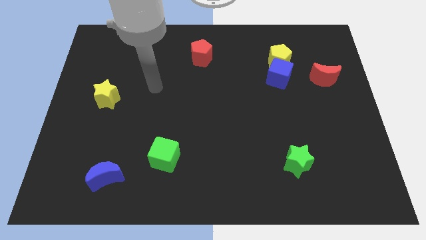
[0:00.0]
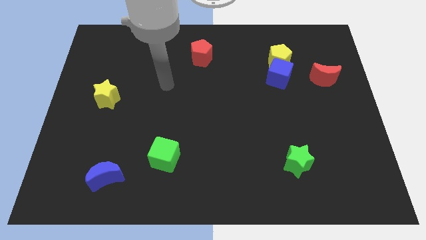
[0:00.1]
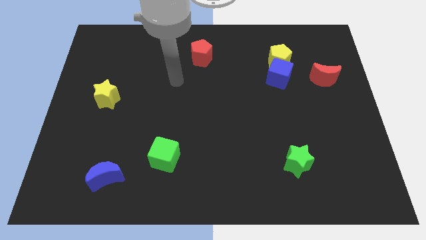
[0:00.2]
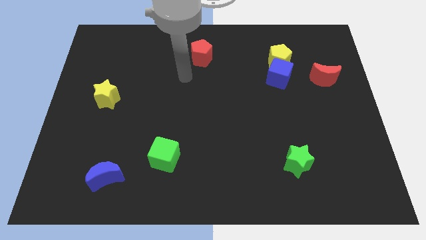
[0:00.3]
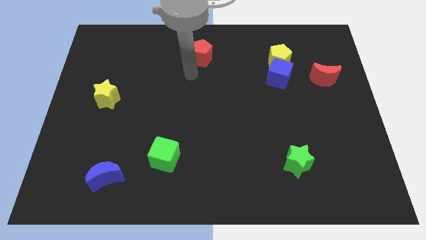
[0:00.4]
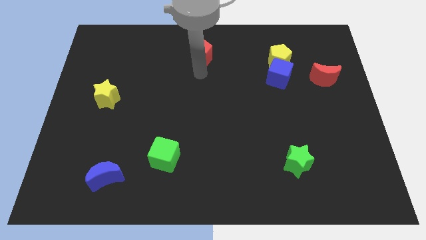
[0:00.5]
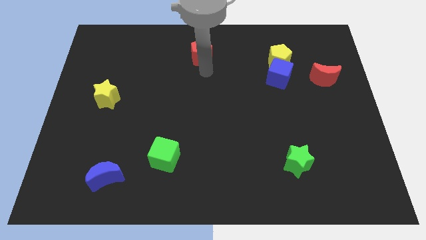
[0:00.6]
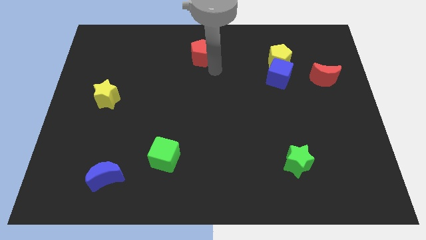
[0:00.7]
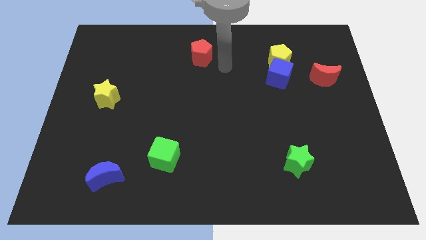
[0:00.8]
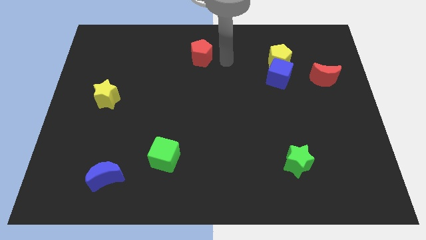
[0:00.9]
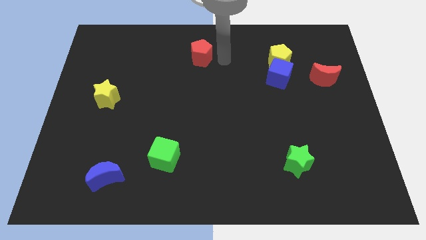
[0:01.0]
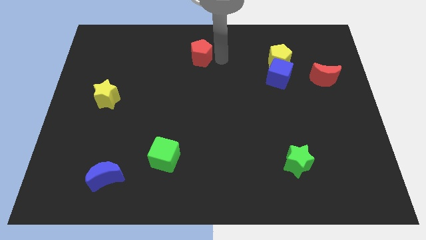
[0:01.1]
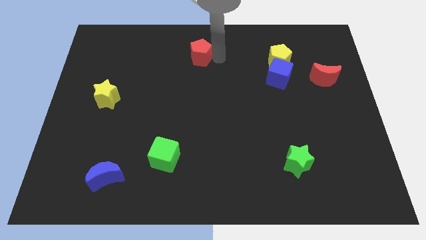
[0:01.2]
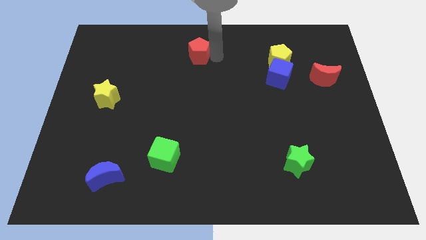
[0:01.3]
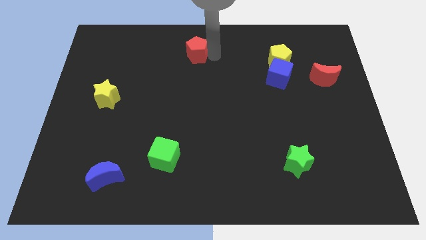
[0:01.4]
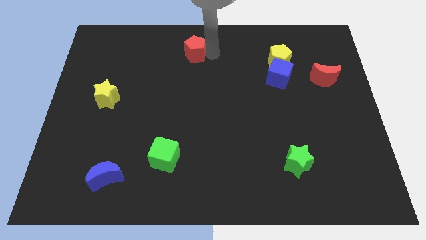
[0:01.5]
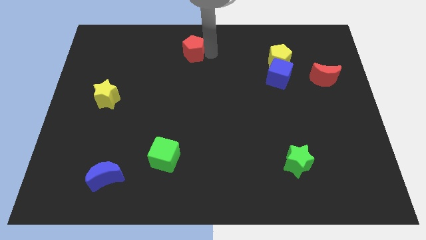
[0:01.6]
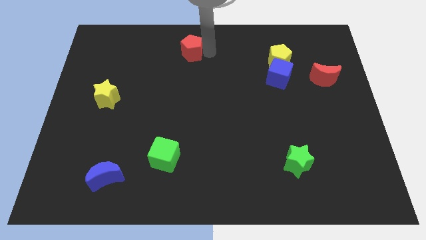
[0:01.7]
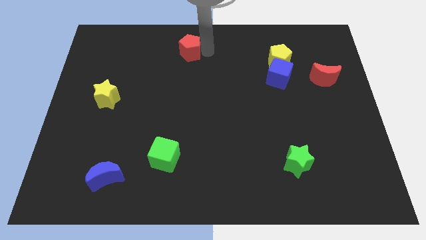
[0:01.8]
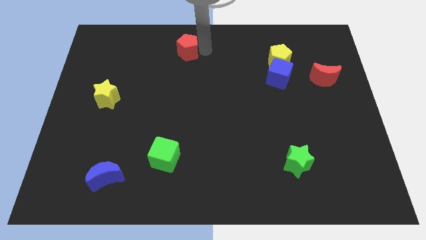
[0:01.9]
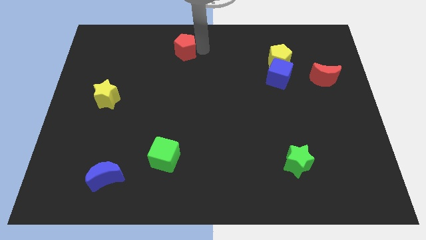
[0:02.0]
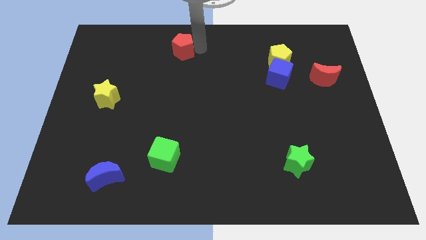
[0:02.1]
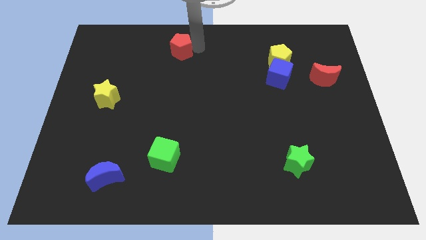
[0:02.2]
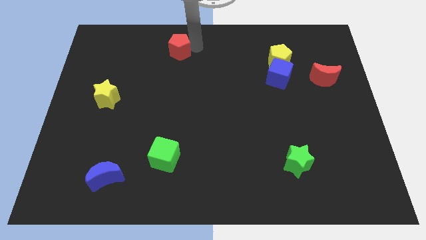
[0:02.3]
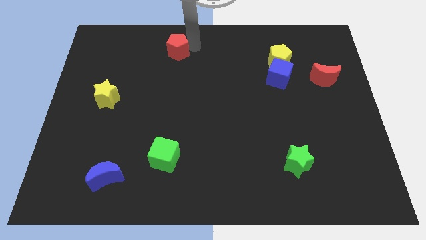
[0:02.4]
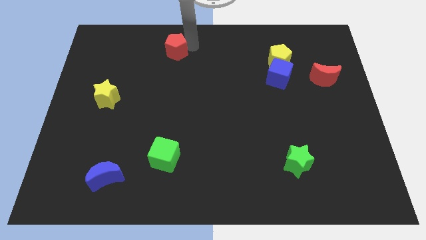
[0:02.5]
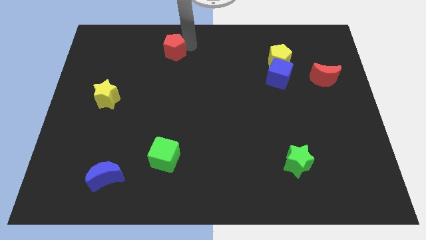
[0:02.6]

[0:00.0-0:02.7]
slightly push the red pentagon left

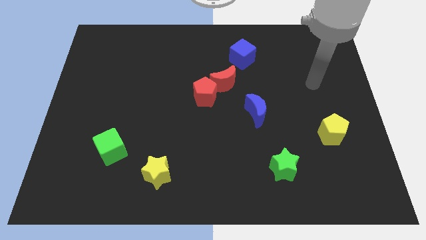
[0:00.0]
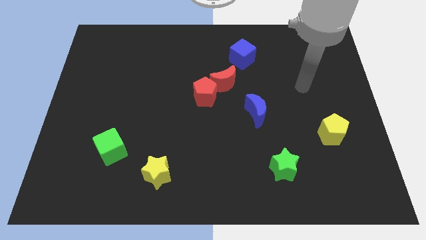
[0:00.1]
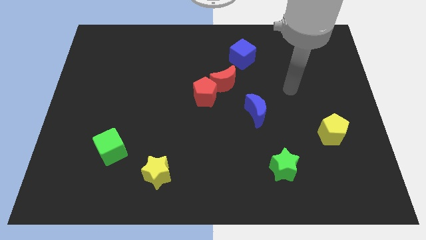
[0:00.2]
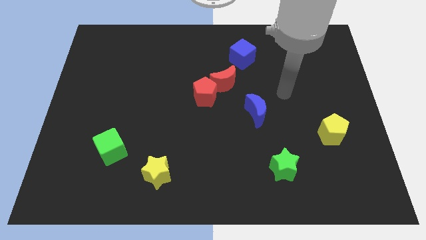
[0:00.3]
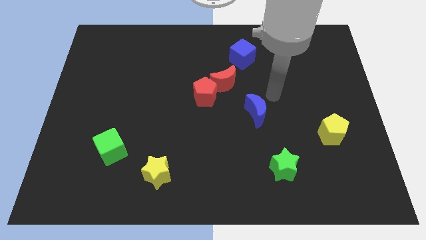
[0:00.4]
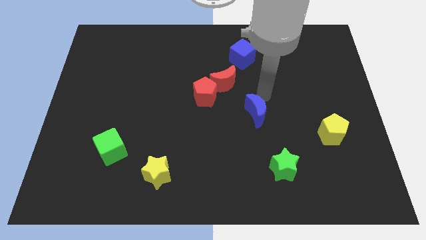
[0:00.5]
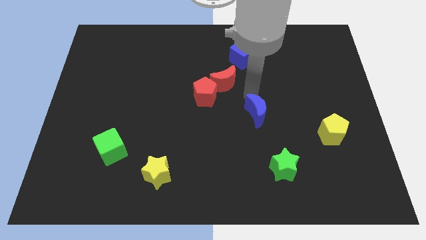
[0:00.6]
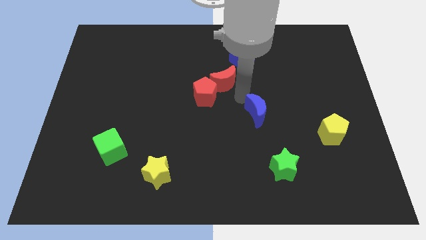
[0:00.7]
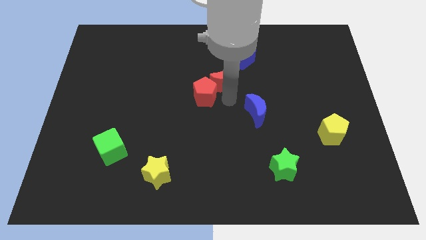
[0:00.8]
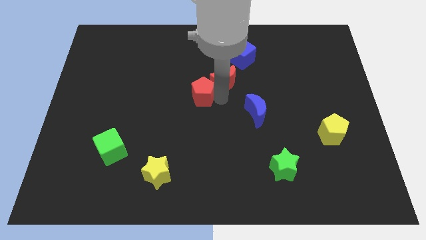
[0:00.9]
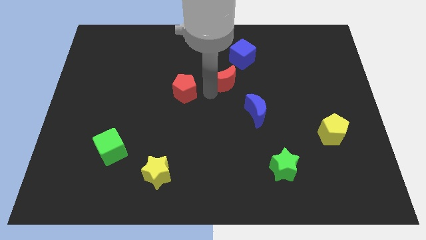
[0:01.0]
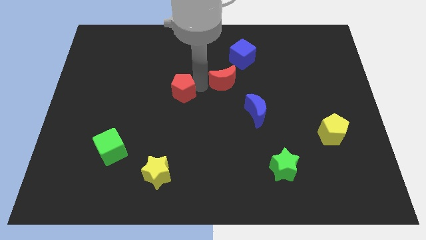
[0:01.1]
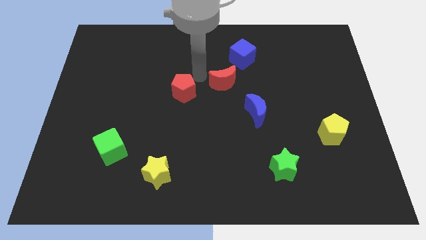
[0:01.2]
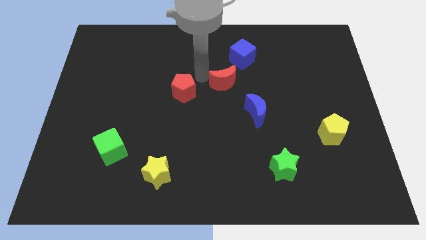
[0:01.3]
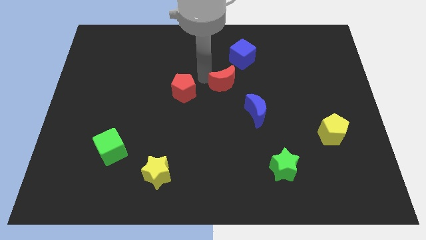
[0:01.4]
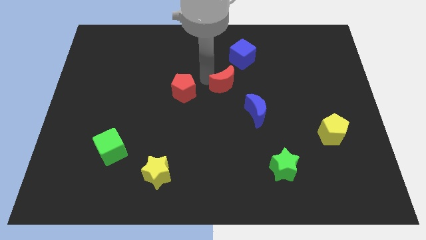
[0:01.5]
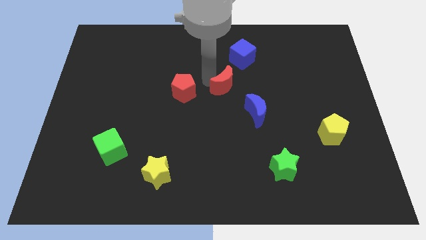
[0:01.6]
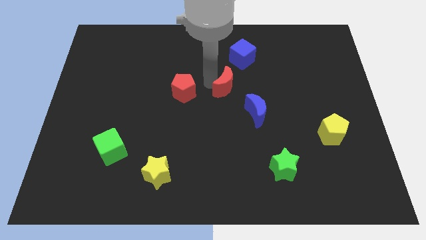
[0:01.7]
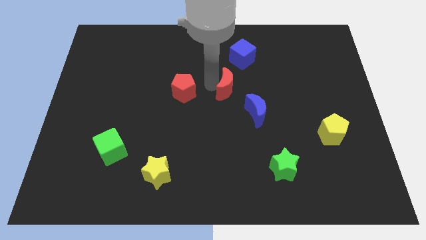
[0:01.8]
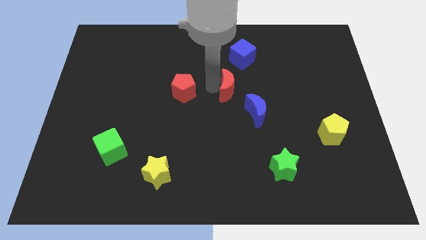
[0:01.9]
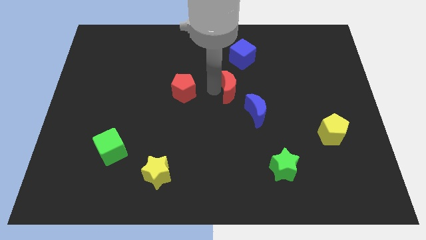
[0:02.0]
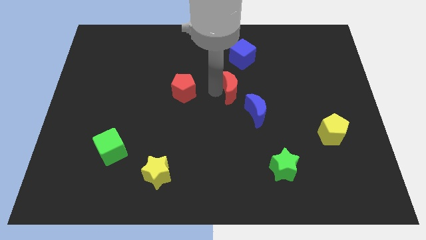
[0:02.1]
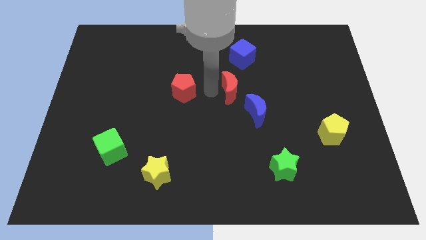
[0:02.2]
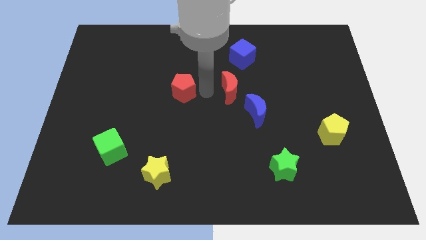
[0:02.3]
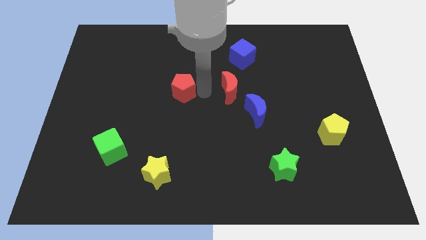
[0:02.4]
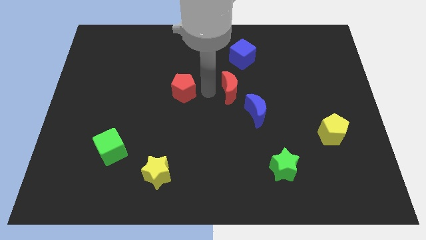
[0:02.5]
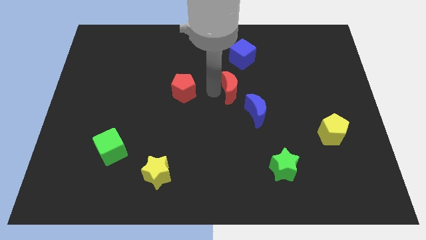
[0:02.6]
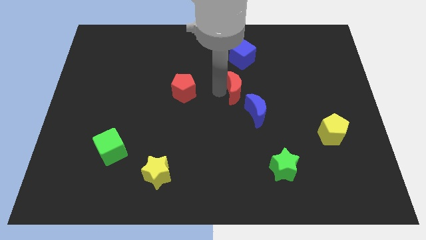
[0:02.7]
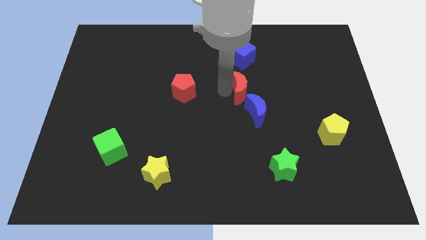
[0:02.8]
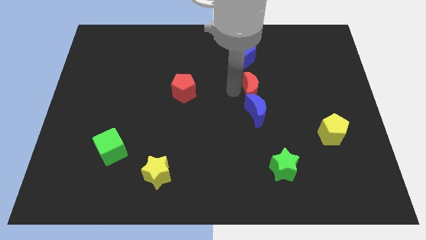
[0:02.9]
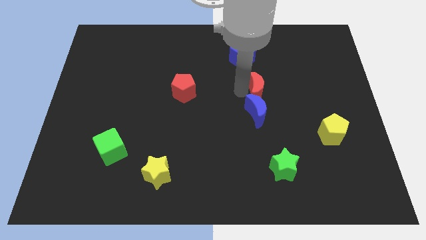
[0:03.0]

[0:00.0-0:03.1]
slide the red moon a little bit to the right

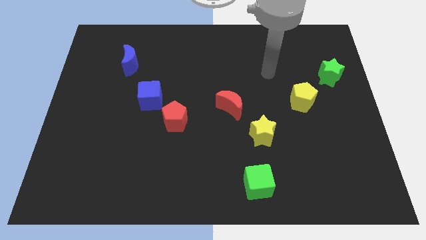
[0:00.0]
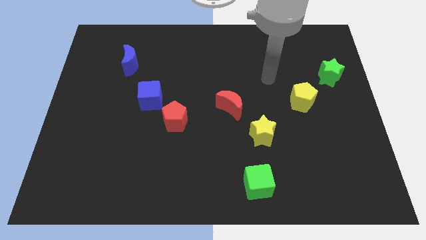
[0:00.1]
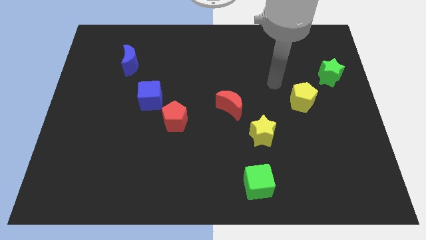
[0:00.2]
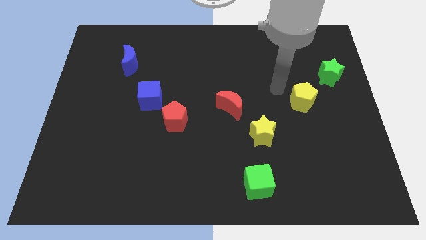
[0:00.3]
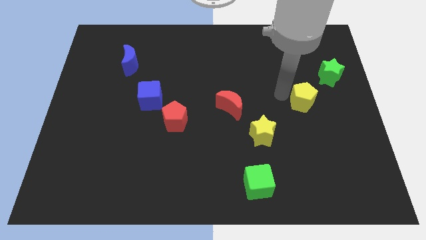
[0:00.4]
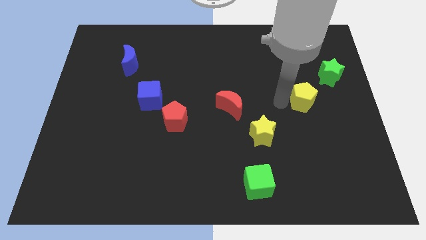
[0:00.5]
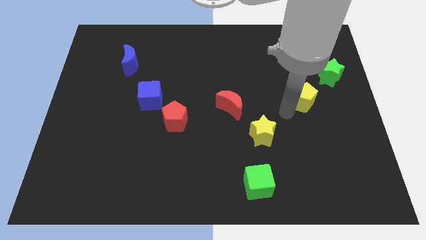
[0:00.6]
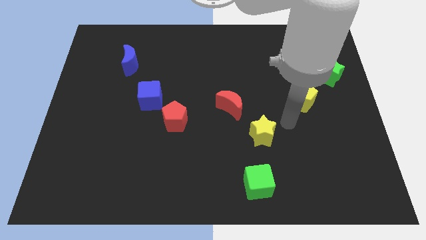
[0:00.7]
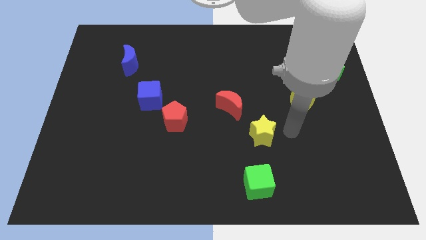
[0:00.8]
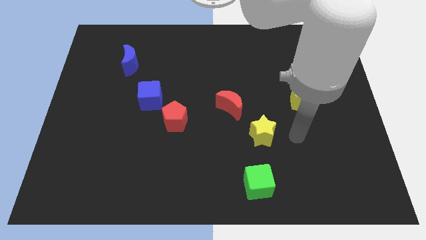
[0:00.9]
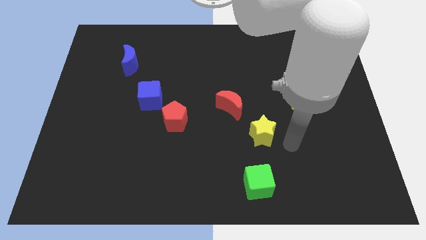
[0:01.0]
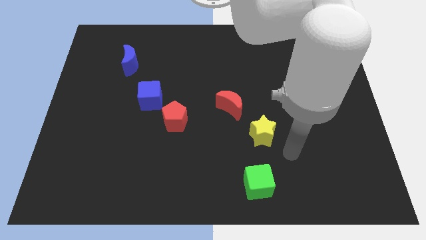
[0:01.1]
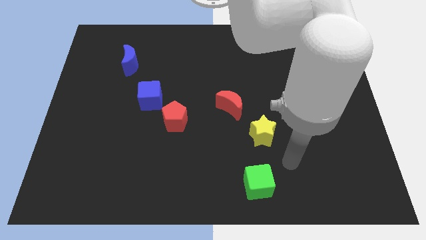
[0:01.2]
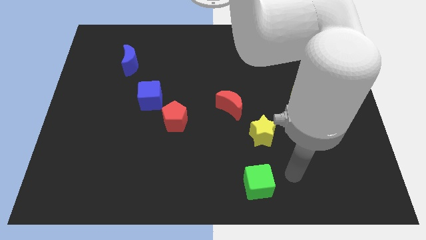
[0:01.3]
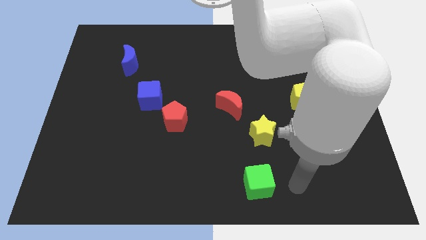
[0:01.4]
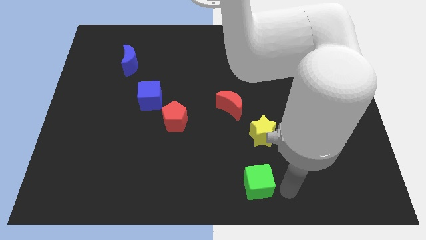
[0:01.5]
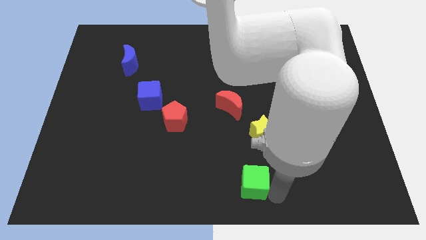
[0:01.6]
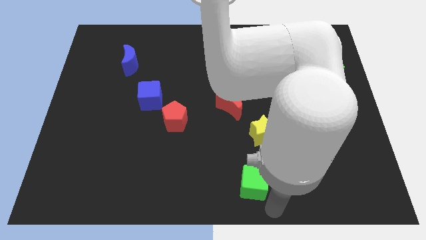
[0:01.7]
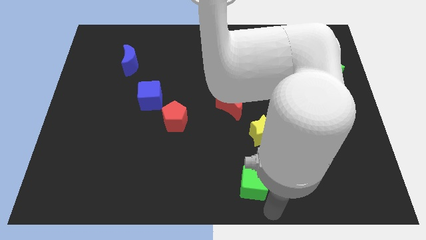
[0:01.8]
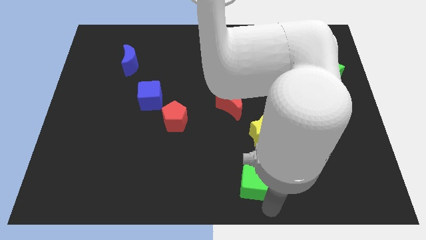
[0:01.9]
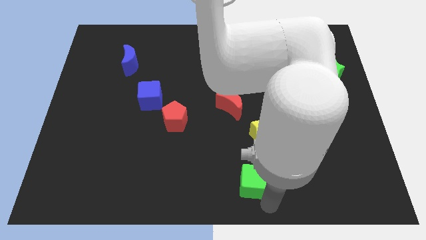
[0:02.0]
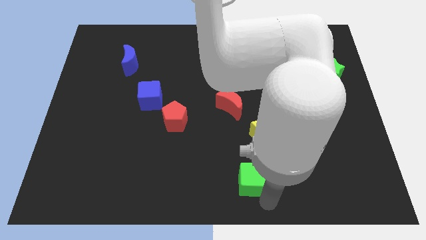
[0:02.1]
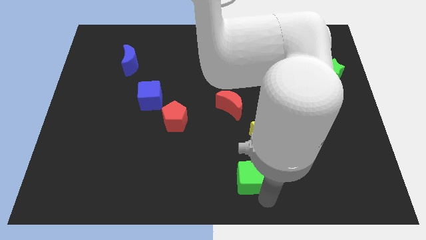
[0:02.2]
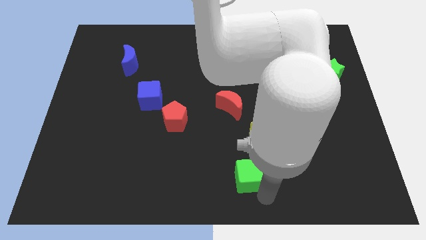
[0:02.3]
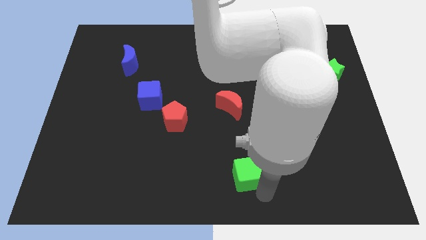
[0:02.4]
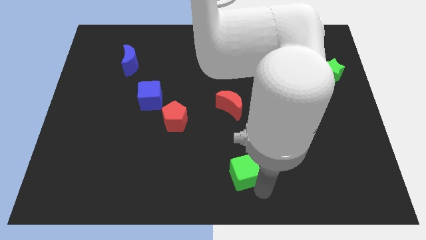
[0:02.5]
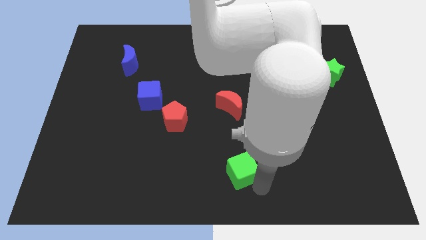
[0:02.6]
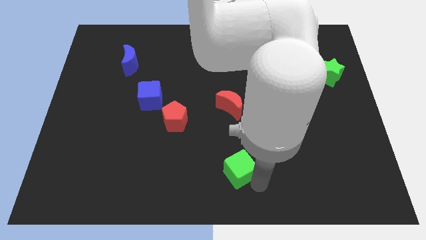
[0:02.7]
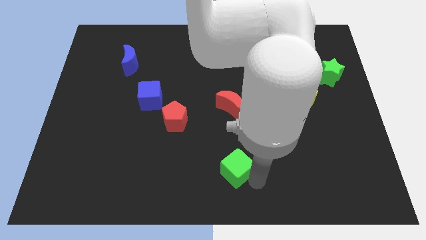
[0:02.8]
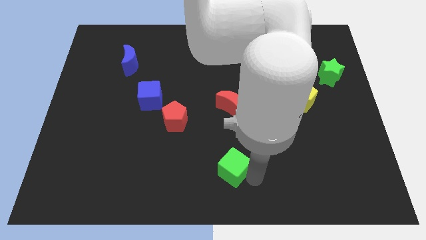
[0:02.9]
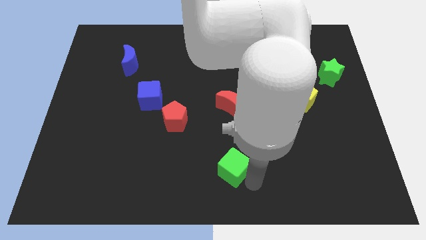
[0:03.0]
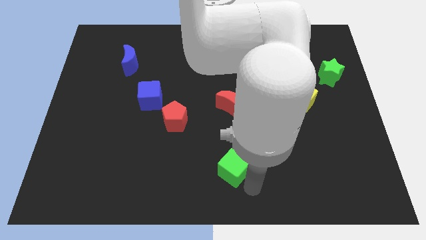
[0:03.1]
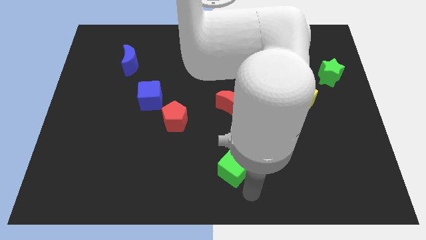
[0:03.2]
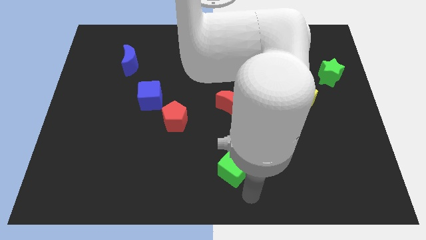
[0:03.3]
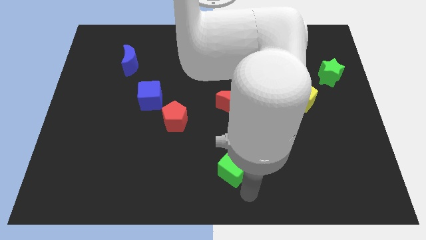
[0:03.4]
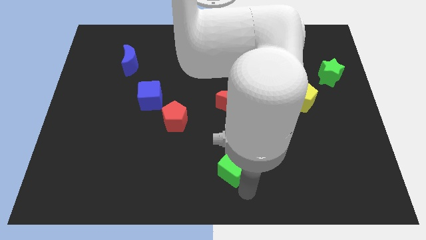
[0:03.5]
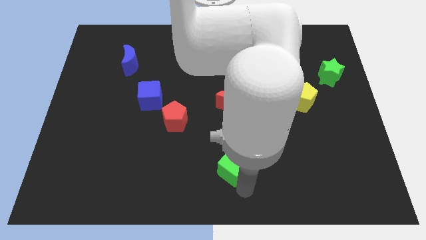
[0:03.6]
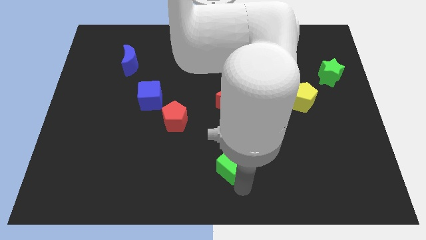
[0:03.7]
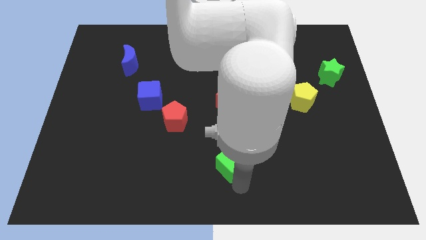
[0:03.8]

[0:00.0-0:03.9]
push the green cube somewhat upwards and then to the left
